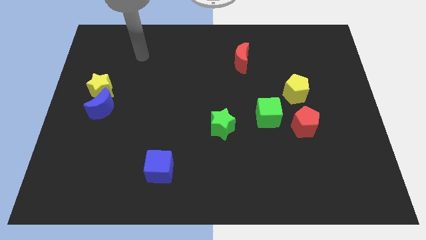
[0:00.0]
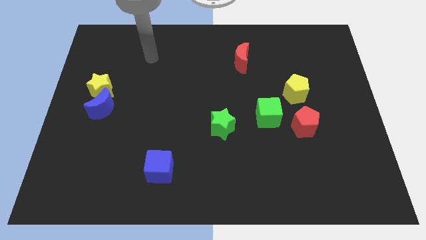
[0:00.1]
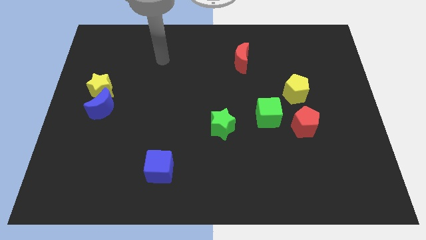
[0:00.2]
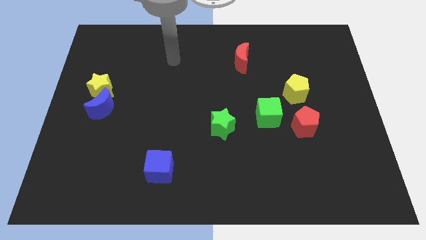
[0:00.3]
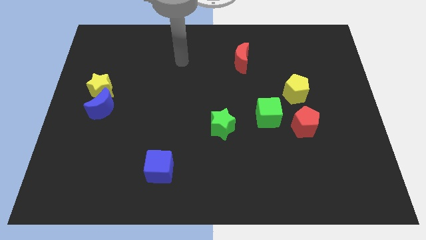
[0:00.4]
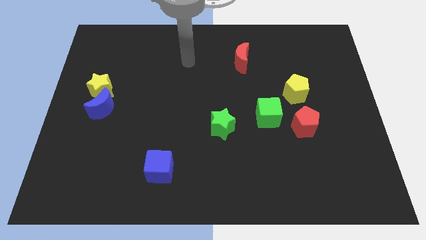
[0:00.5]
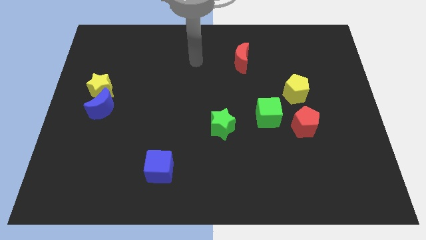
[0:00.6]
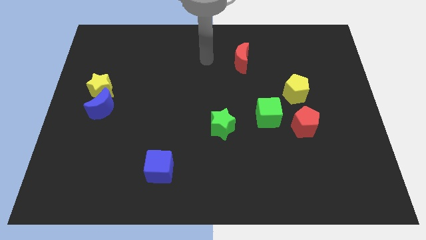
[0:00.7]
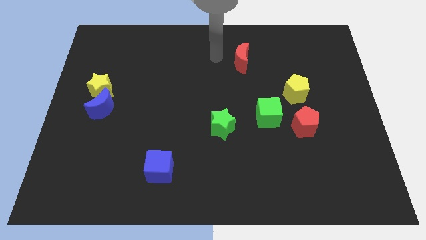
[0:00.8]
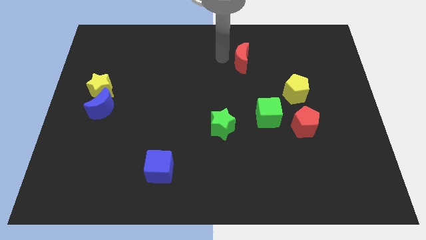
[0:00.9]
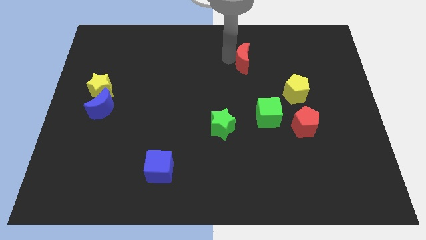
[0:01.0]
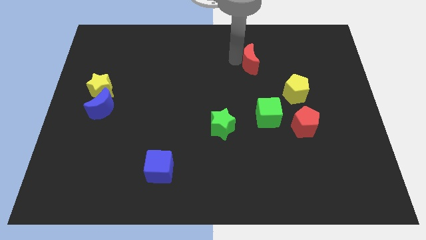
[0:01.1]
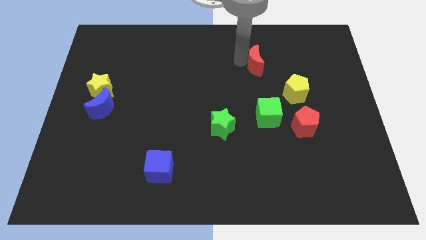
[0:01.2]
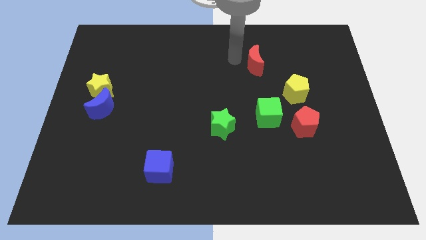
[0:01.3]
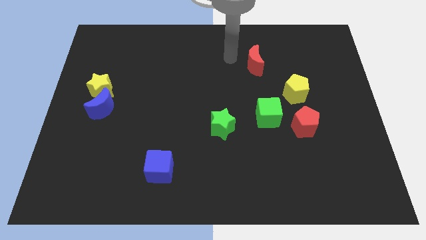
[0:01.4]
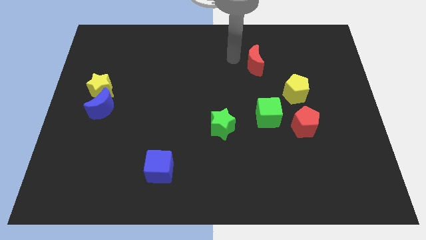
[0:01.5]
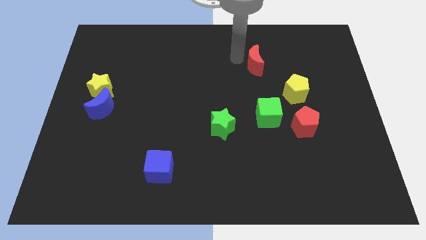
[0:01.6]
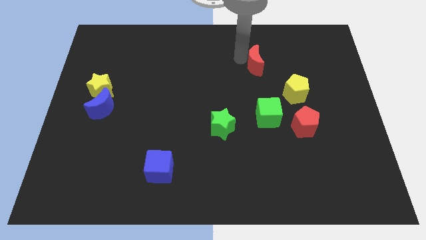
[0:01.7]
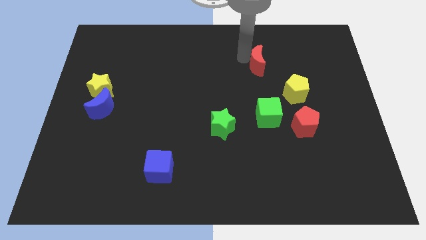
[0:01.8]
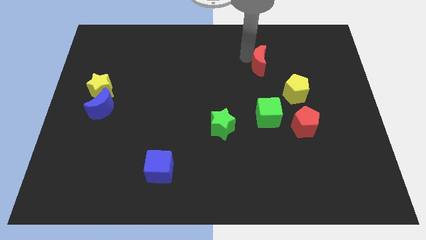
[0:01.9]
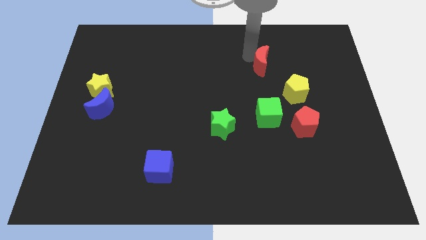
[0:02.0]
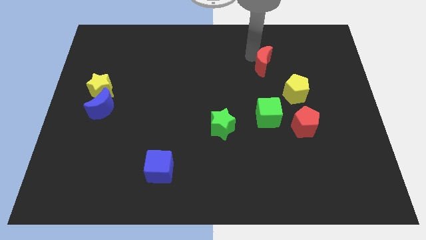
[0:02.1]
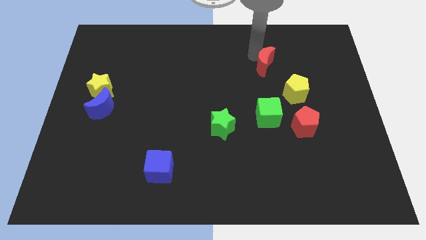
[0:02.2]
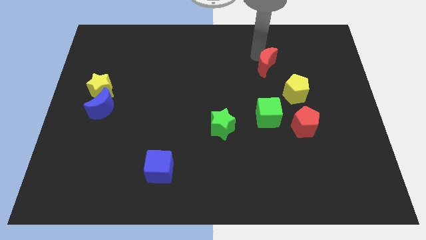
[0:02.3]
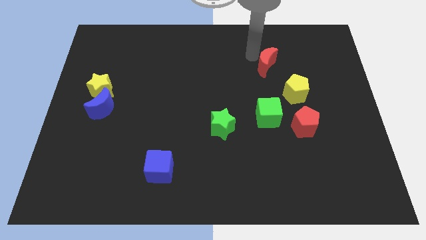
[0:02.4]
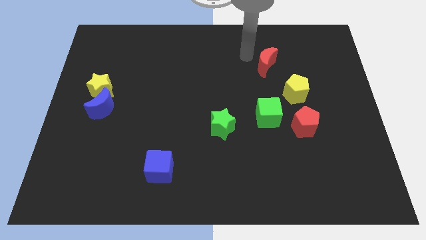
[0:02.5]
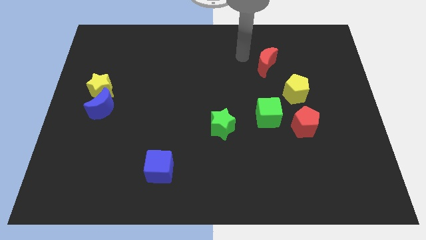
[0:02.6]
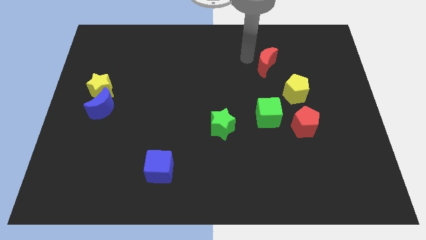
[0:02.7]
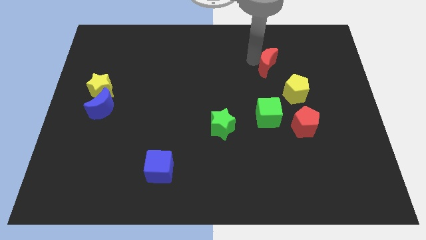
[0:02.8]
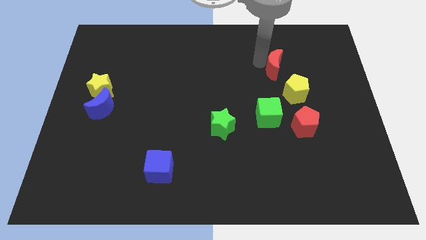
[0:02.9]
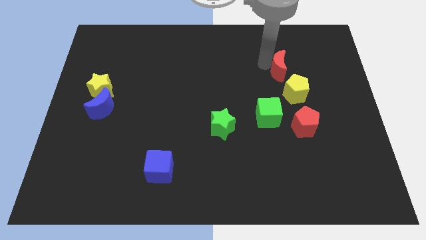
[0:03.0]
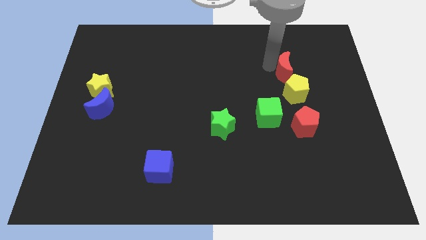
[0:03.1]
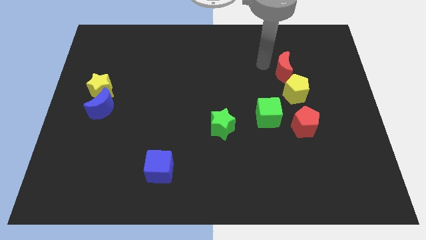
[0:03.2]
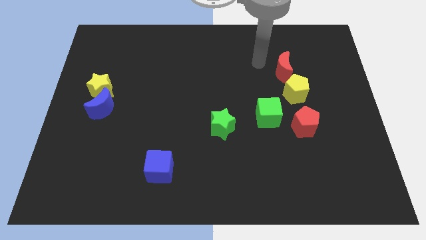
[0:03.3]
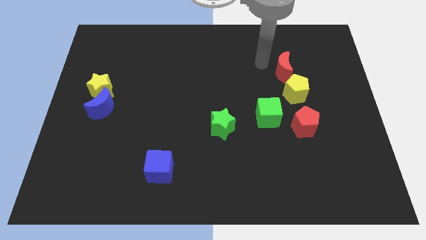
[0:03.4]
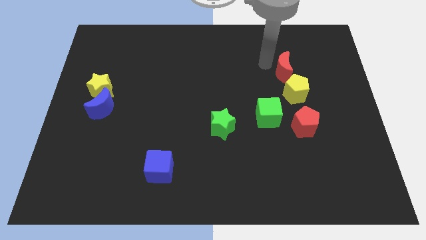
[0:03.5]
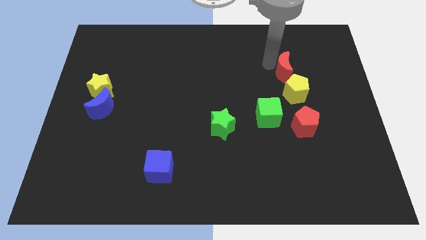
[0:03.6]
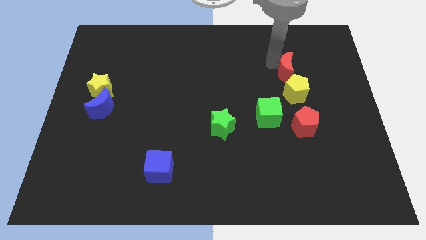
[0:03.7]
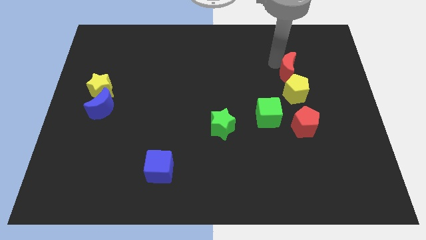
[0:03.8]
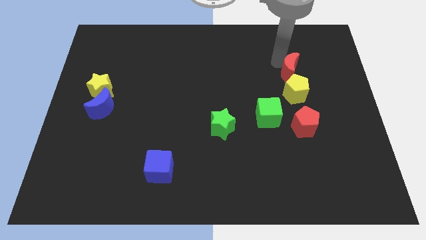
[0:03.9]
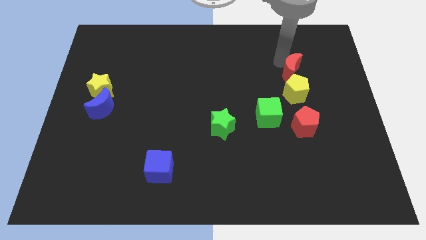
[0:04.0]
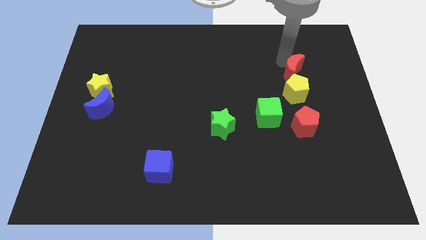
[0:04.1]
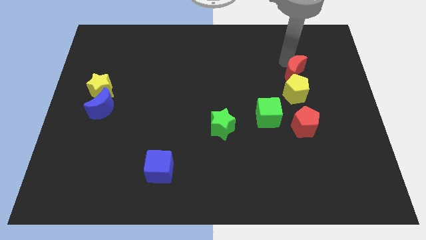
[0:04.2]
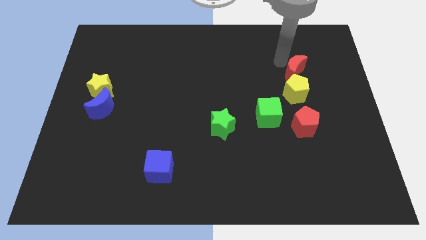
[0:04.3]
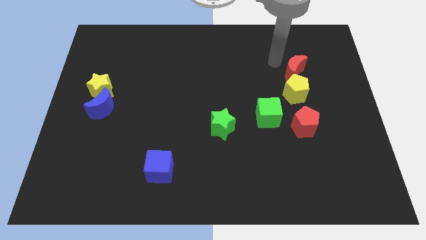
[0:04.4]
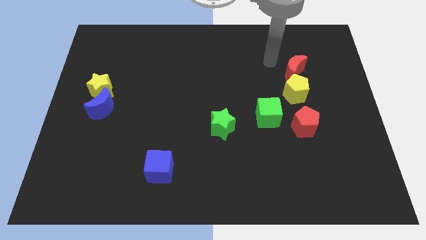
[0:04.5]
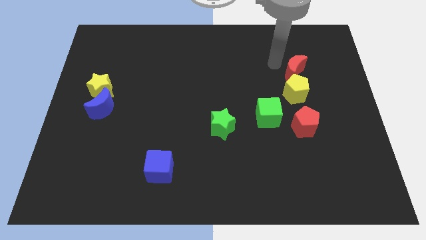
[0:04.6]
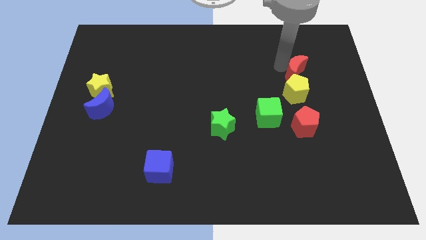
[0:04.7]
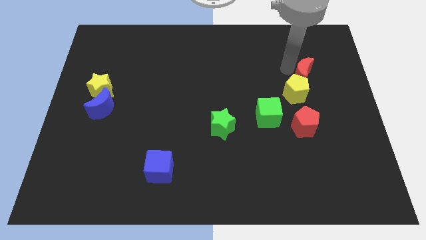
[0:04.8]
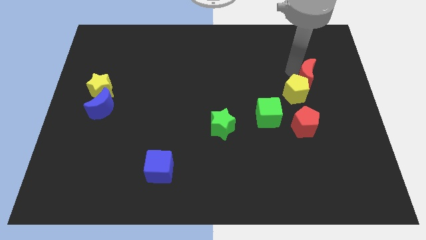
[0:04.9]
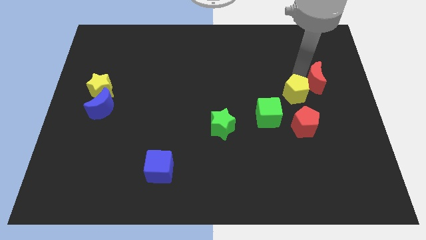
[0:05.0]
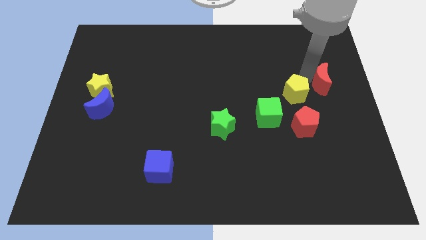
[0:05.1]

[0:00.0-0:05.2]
put the red moon to the right side of the board

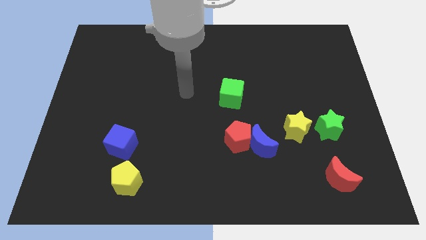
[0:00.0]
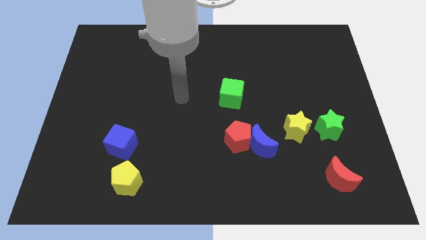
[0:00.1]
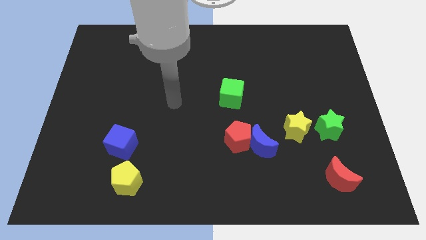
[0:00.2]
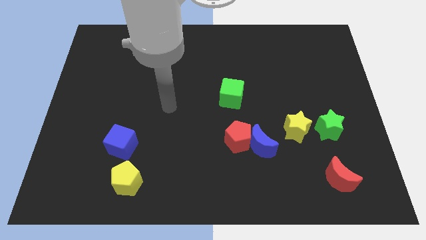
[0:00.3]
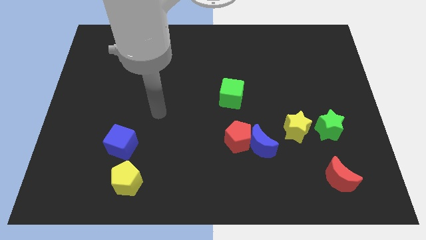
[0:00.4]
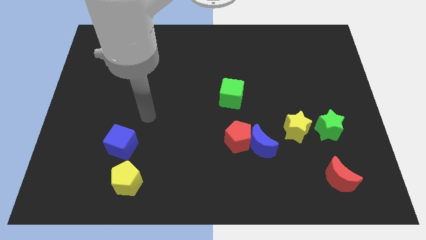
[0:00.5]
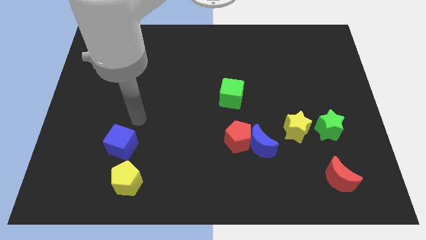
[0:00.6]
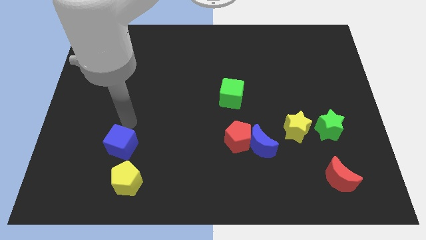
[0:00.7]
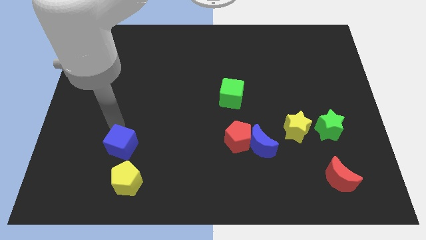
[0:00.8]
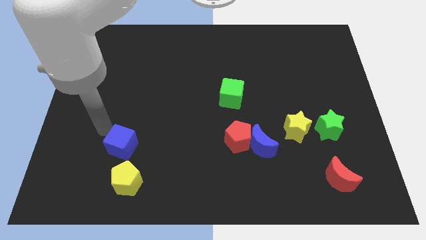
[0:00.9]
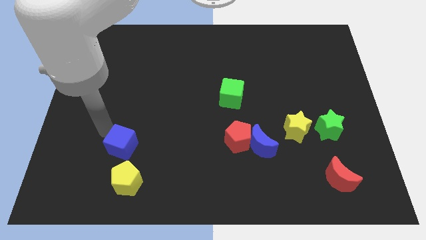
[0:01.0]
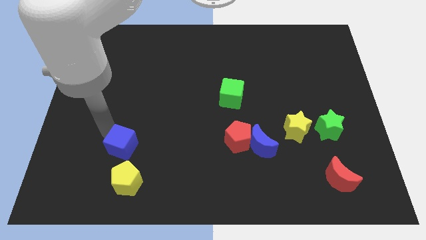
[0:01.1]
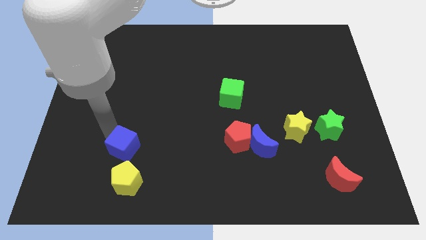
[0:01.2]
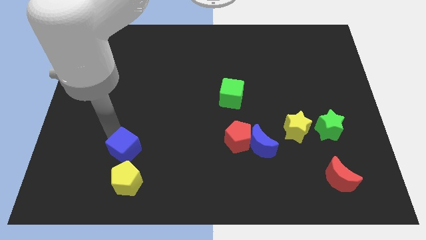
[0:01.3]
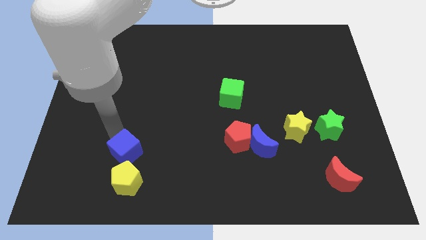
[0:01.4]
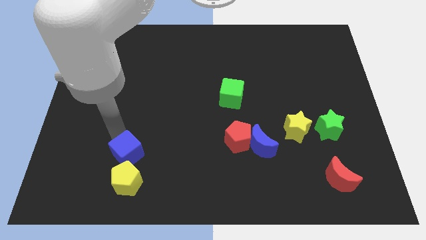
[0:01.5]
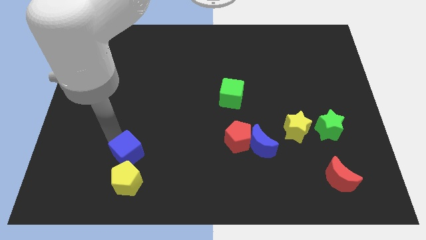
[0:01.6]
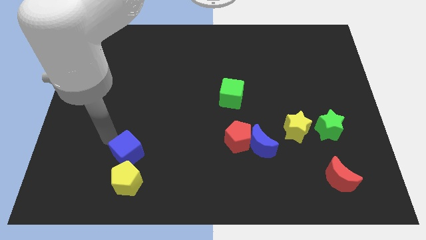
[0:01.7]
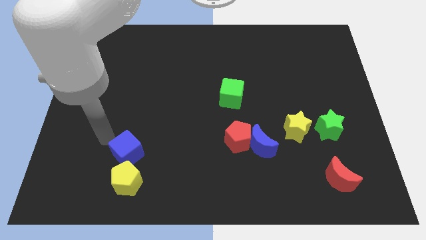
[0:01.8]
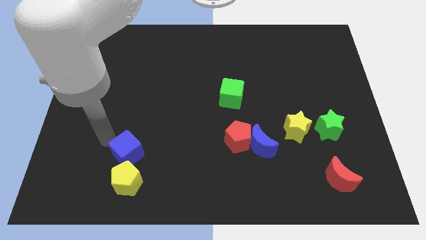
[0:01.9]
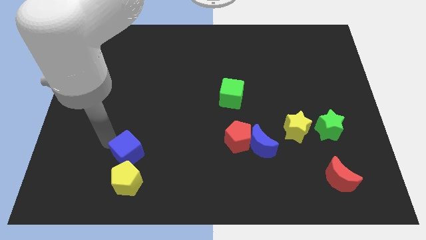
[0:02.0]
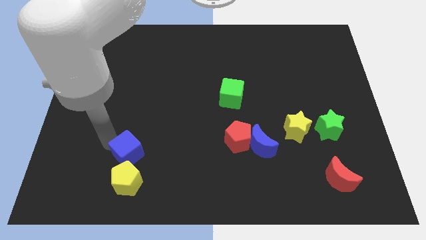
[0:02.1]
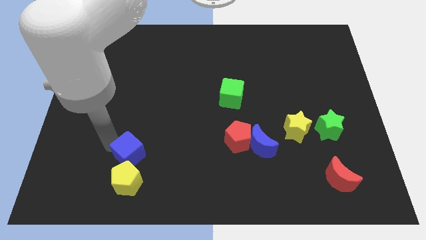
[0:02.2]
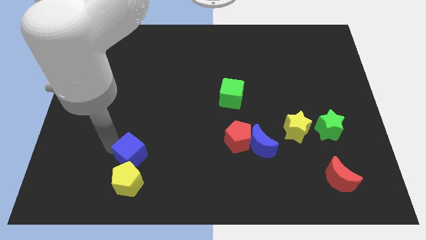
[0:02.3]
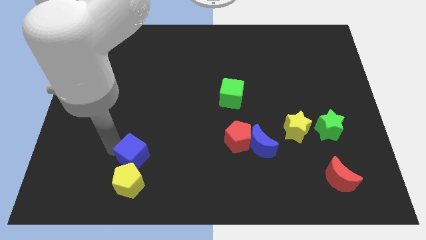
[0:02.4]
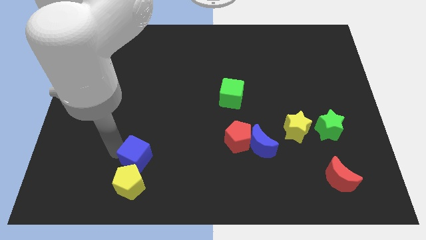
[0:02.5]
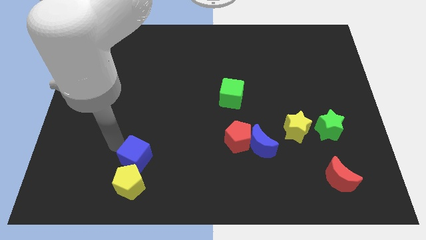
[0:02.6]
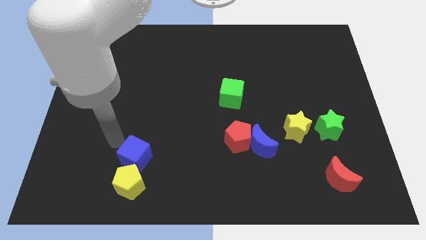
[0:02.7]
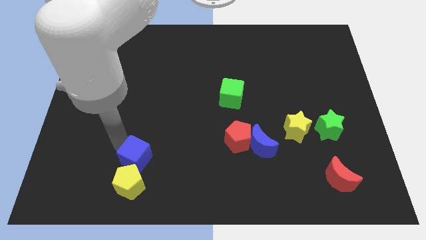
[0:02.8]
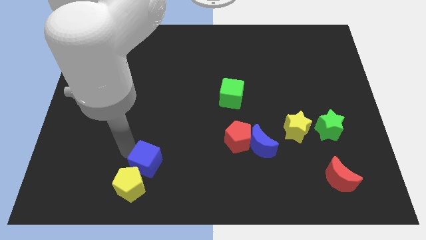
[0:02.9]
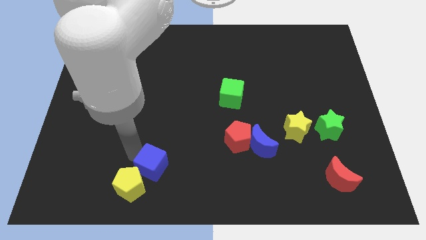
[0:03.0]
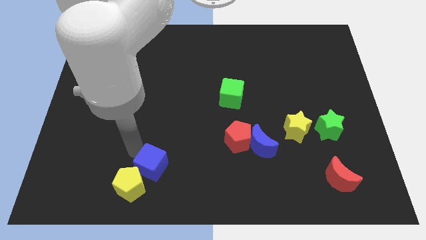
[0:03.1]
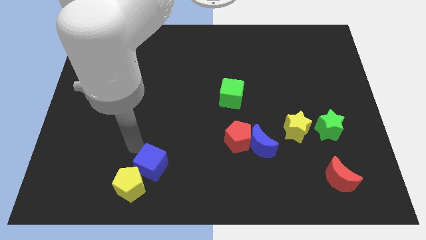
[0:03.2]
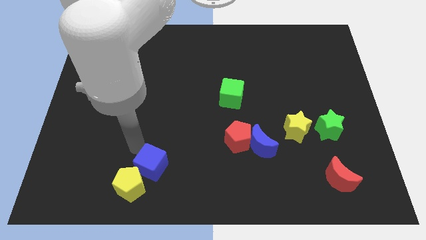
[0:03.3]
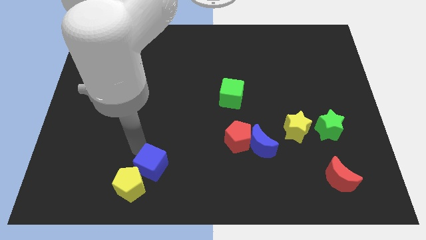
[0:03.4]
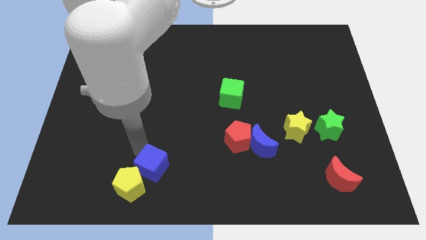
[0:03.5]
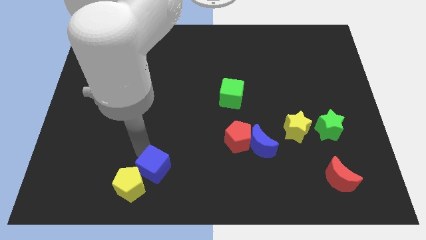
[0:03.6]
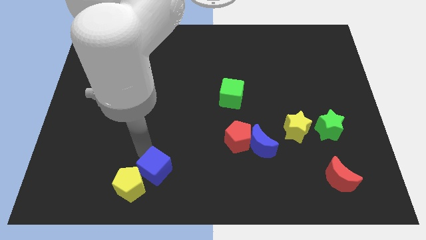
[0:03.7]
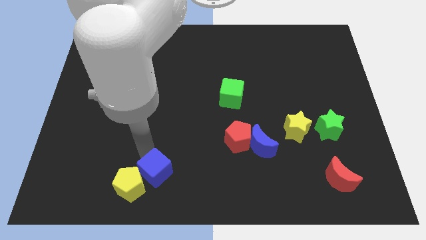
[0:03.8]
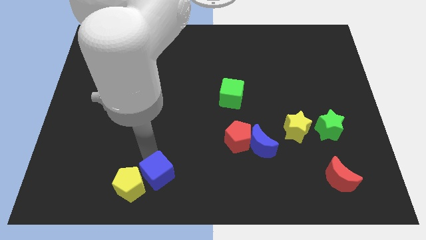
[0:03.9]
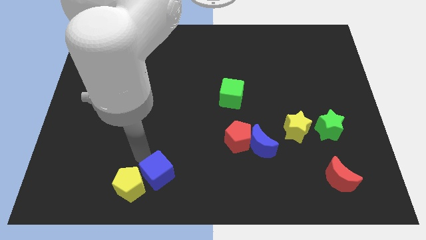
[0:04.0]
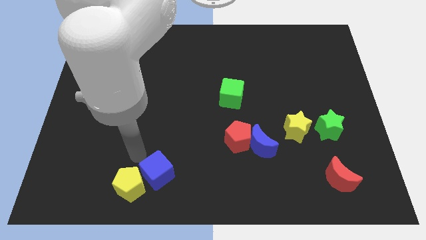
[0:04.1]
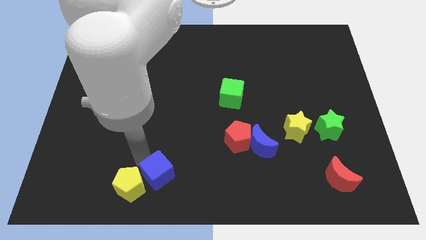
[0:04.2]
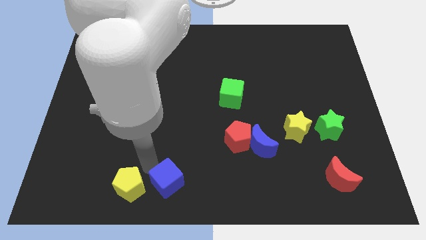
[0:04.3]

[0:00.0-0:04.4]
push the blue cube to the bottom side
